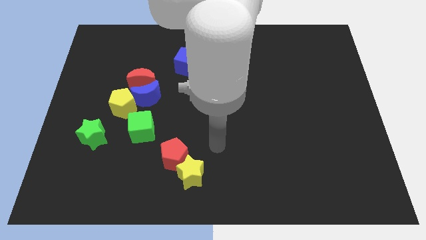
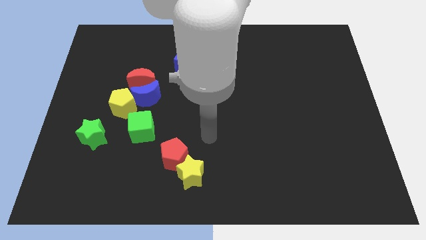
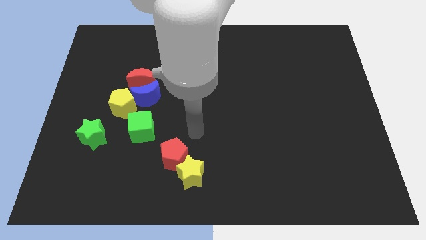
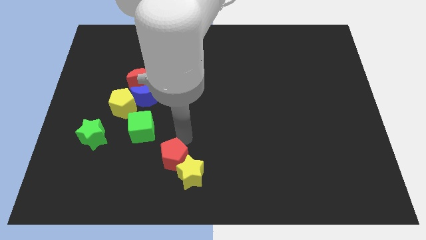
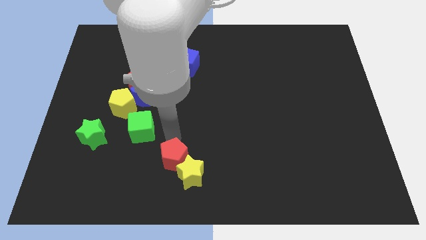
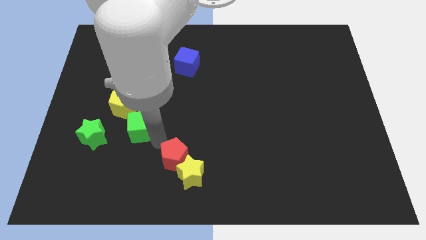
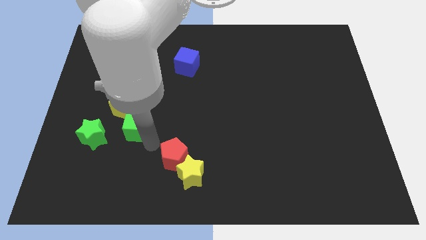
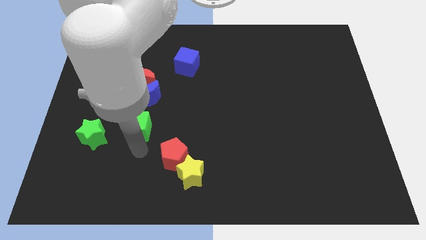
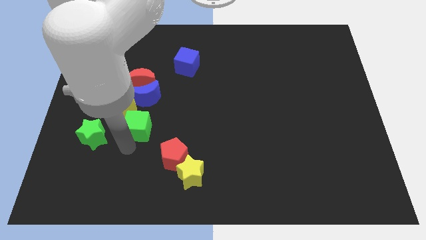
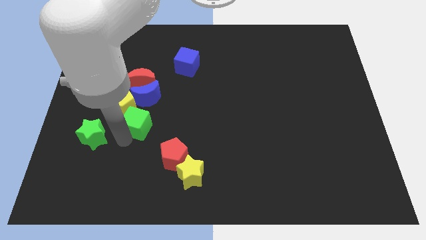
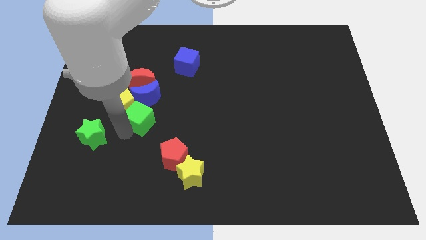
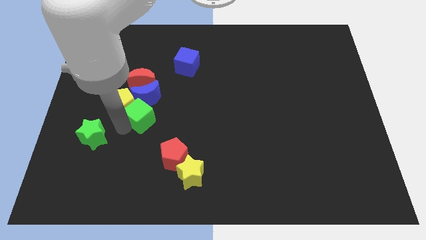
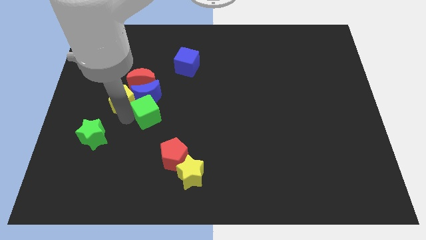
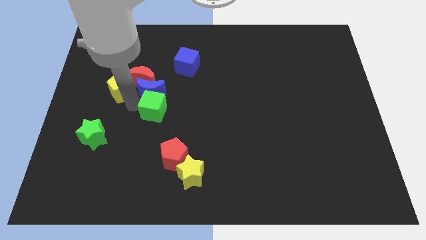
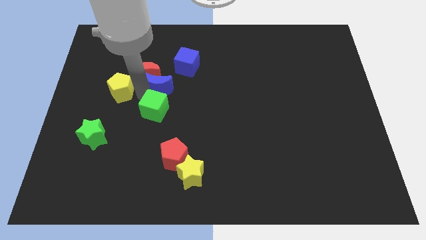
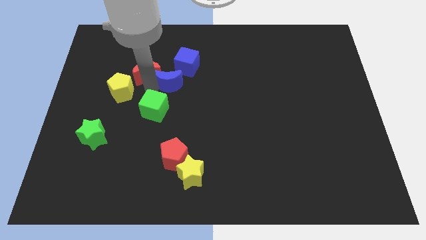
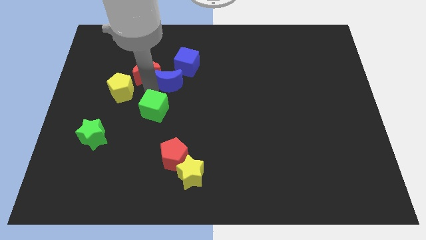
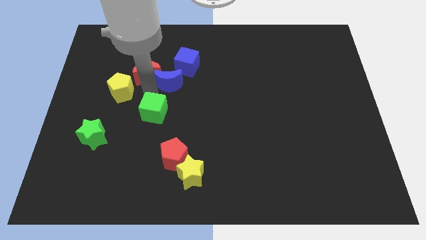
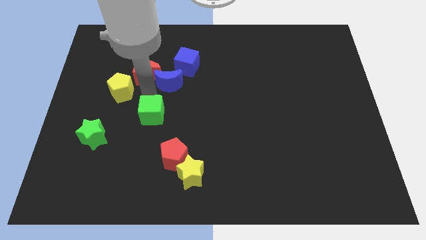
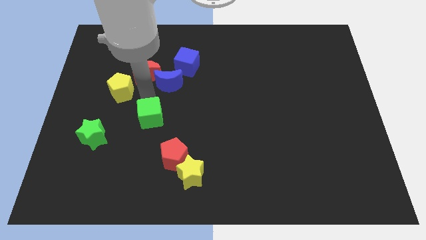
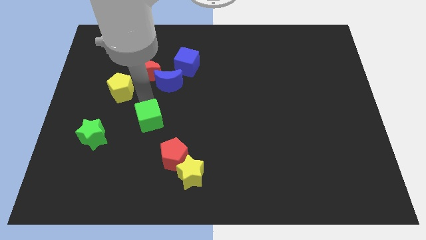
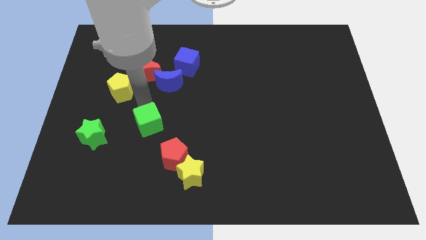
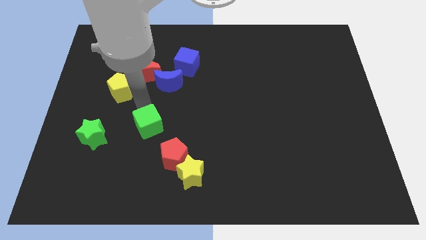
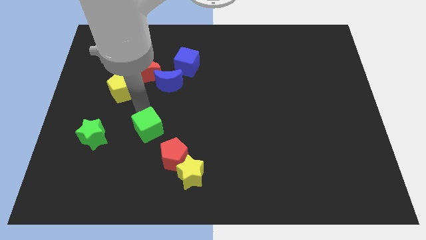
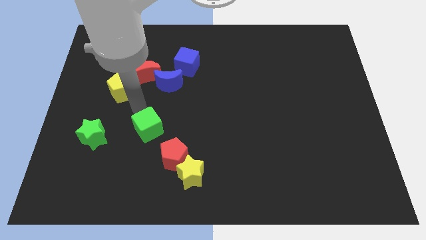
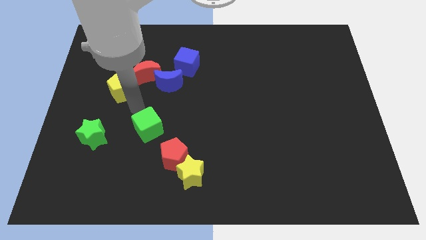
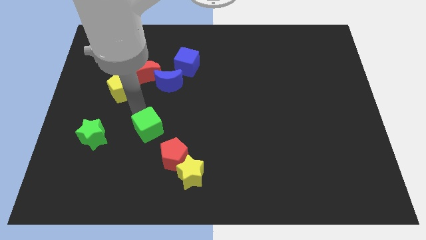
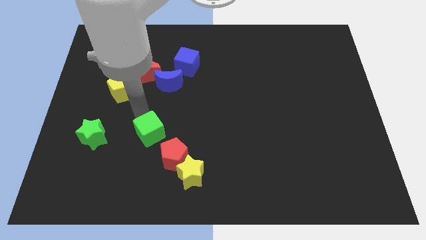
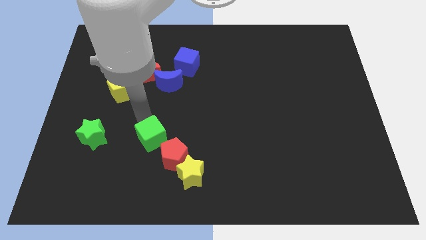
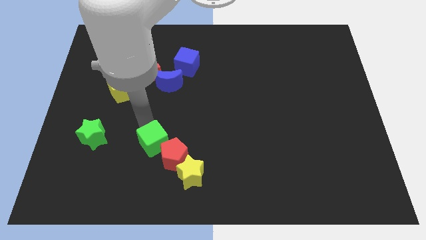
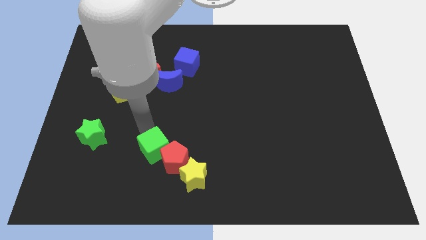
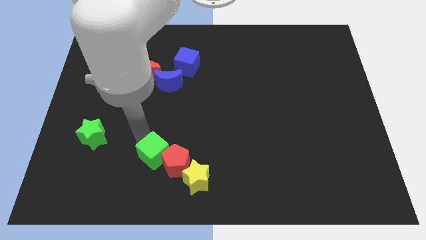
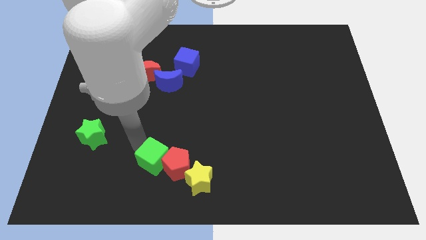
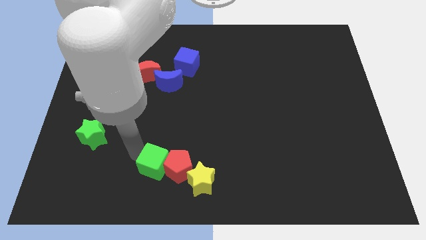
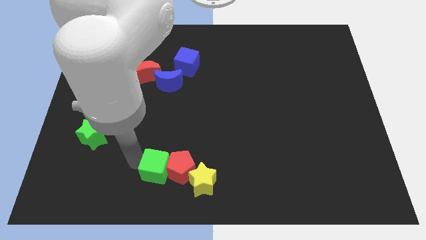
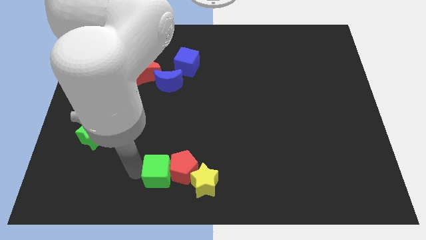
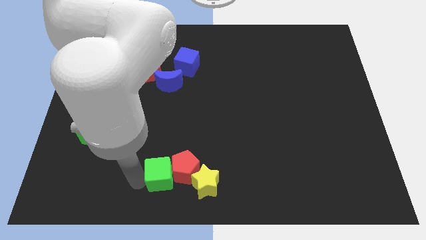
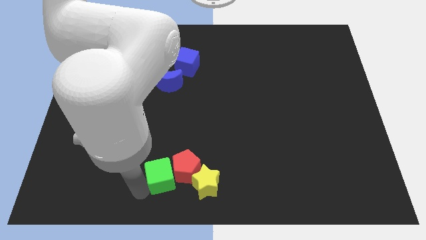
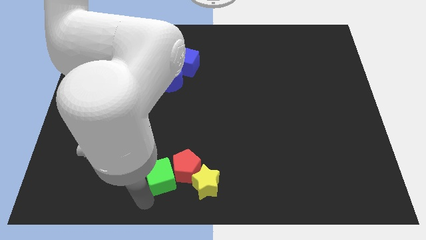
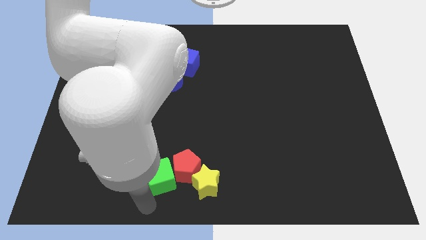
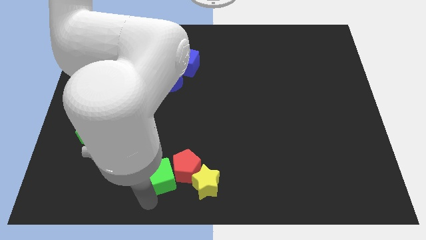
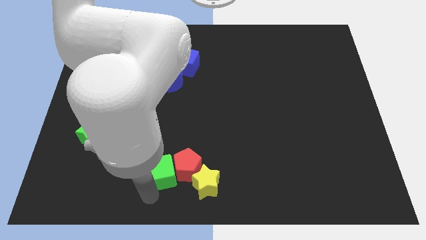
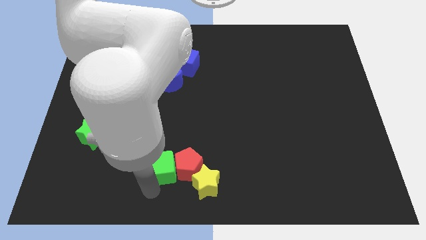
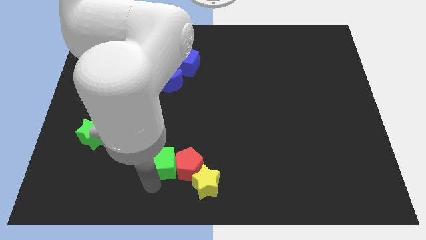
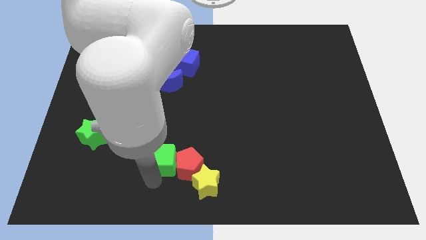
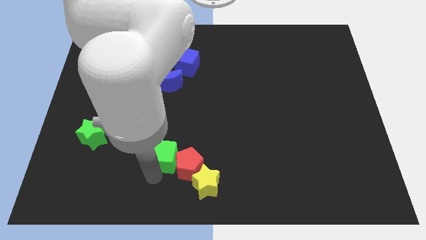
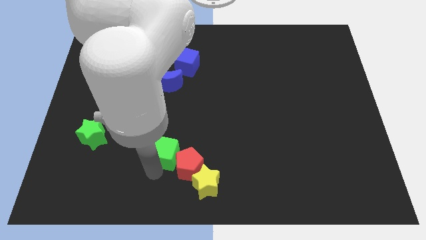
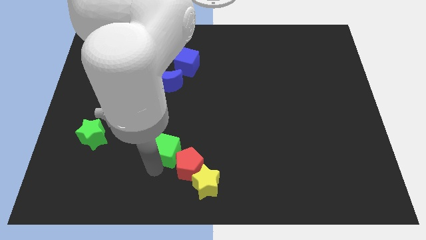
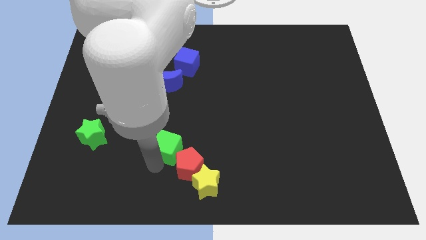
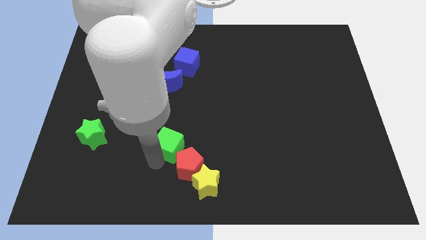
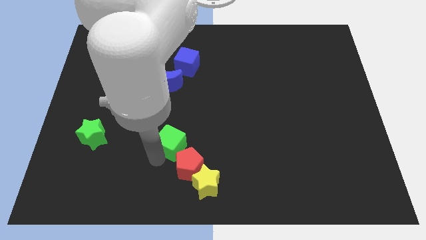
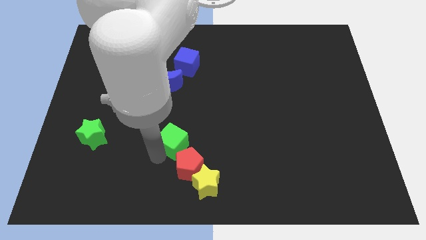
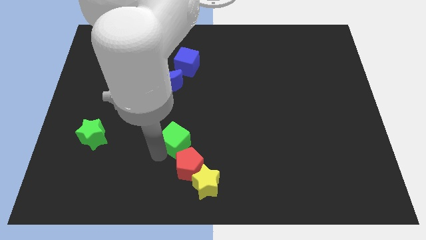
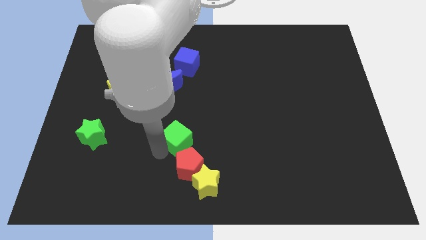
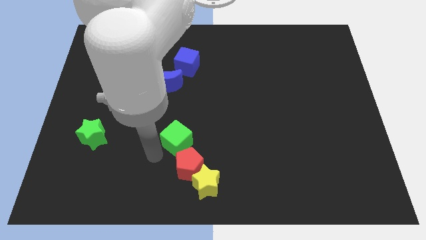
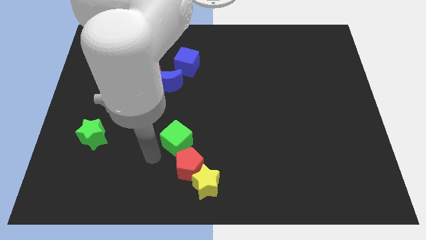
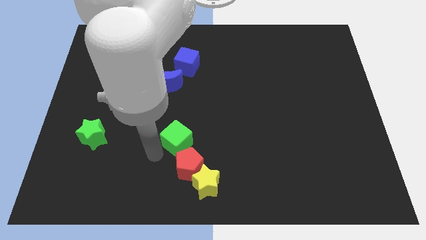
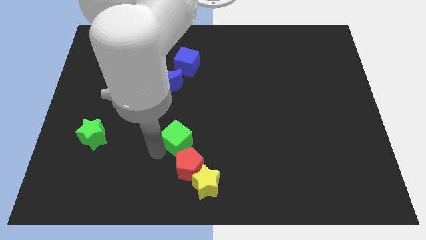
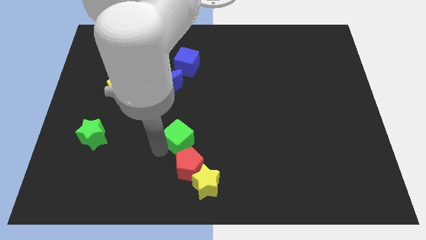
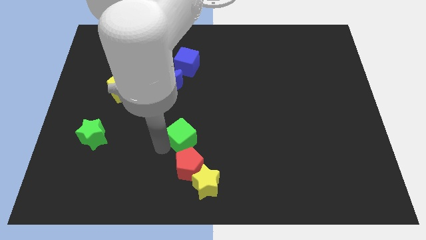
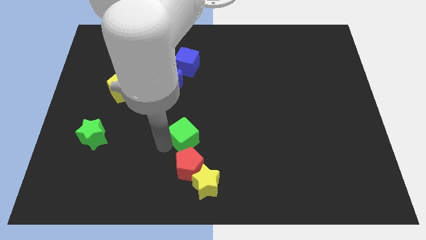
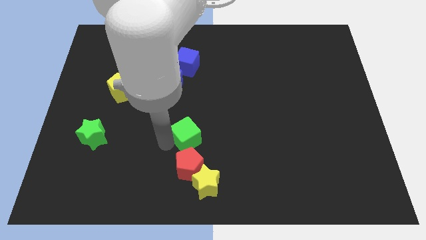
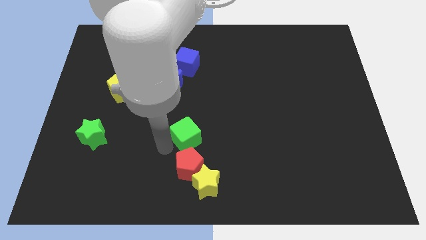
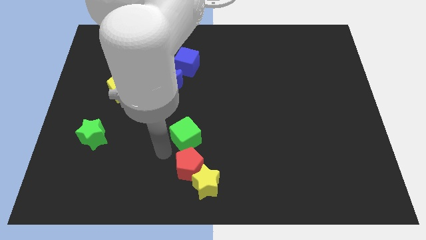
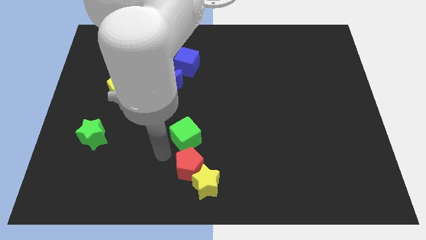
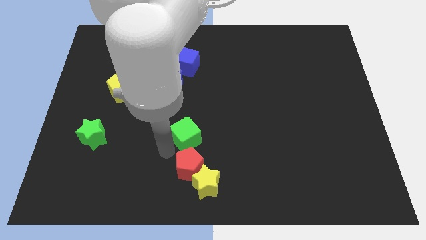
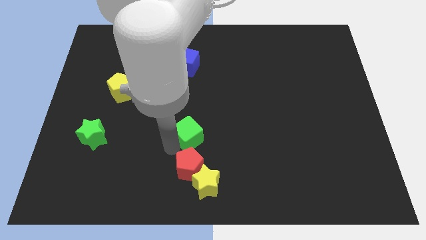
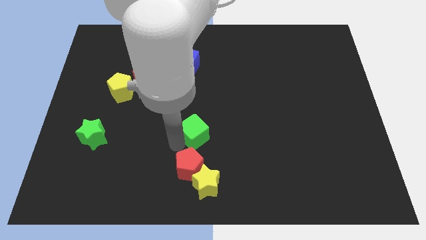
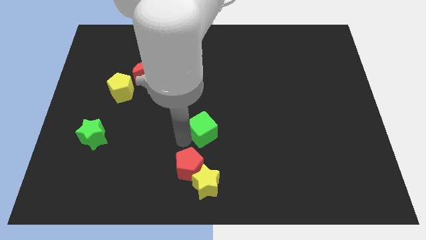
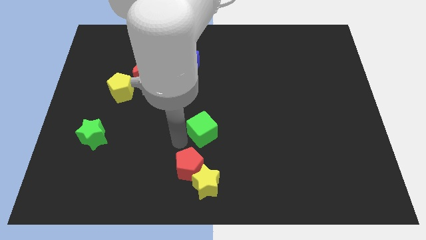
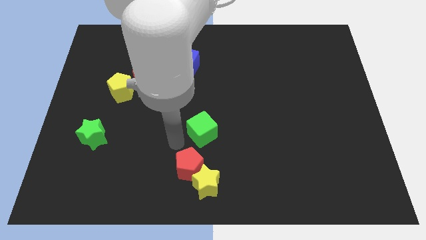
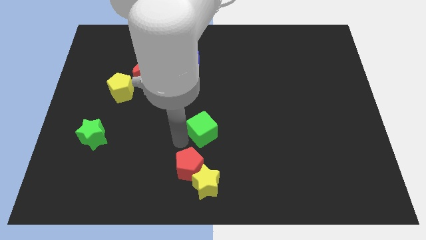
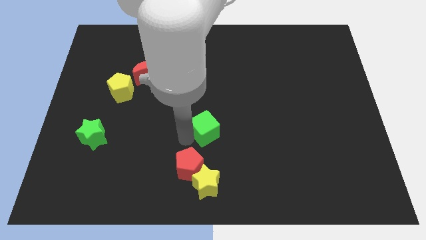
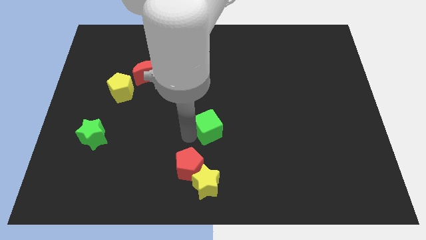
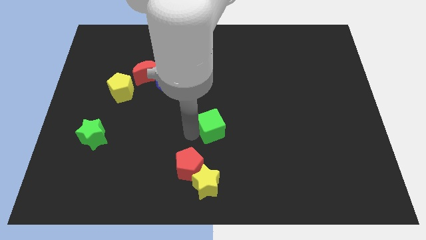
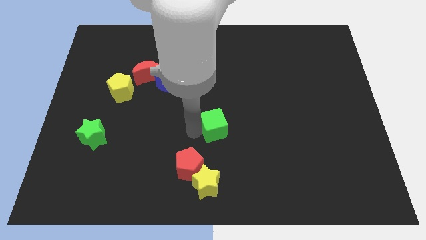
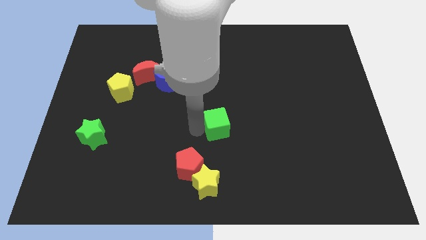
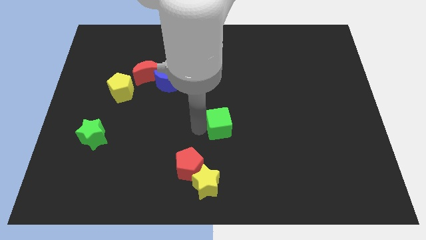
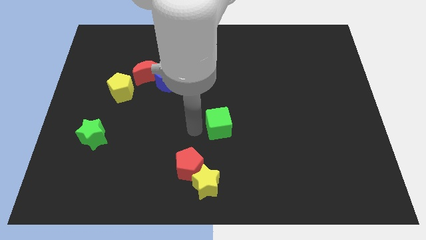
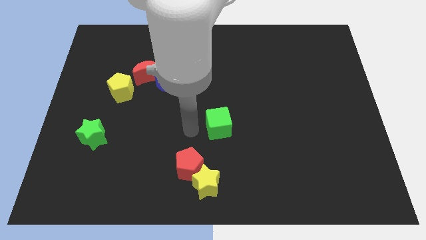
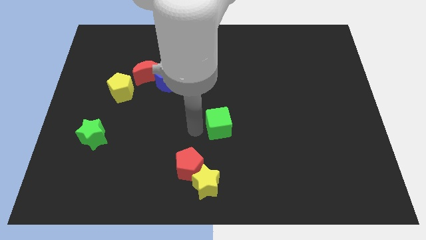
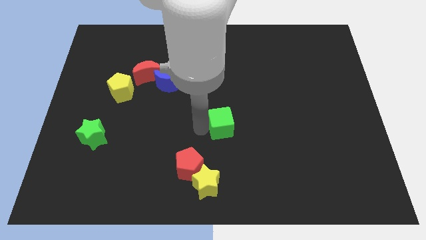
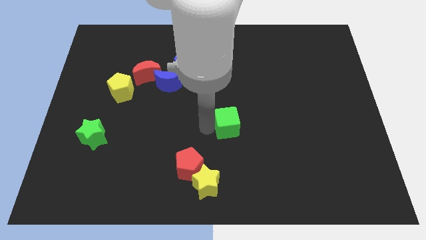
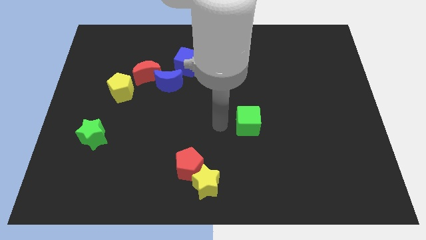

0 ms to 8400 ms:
push the green cube right
